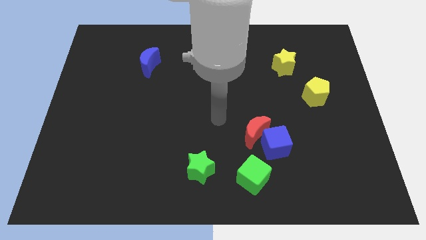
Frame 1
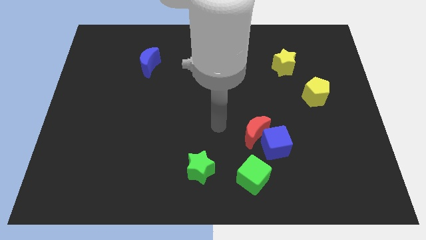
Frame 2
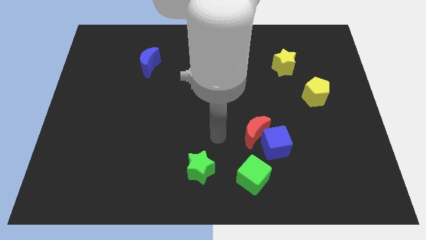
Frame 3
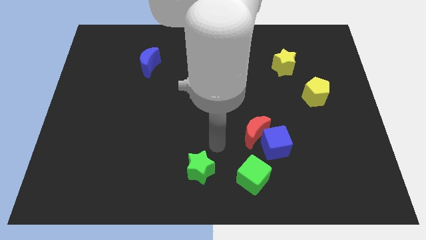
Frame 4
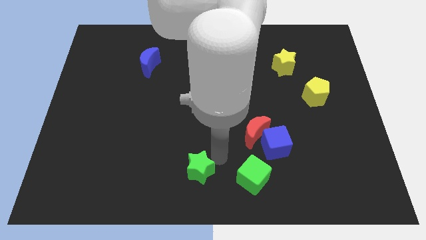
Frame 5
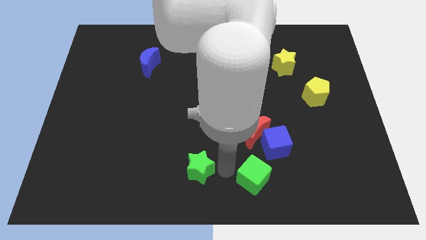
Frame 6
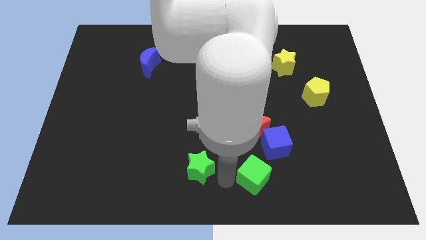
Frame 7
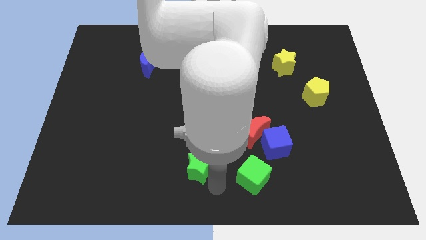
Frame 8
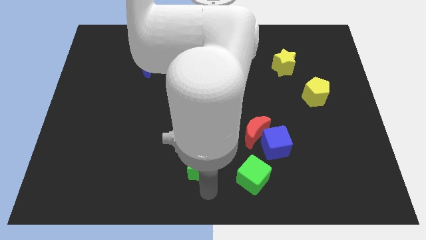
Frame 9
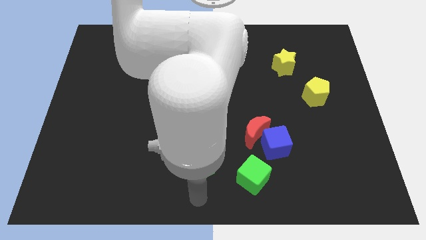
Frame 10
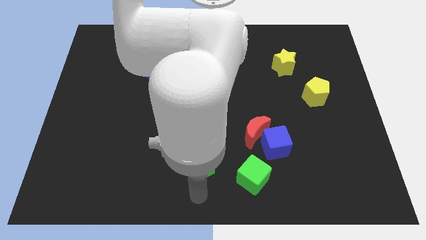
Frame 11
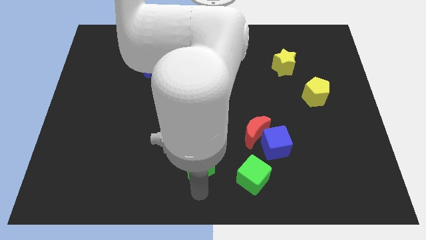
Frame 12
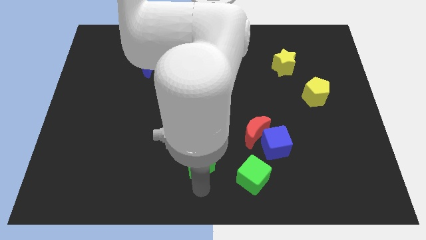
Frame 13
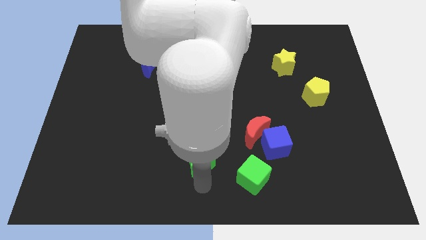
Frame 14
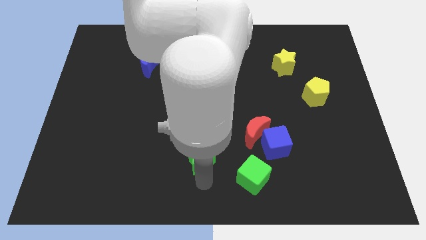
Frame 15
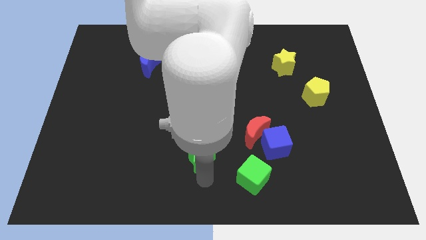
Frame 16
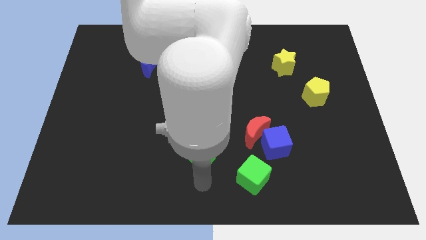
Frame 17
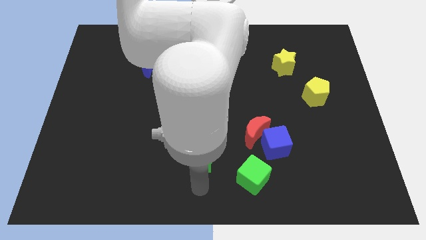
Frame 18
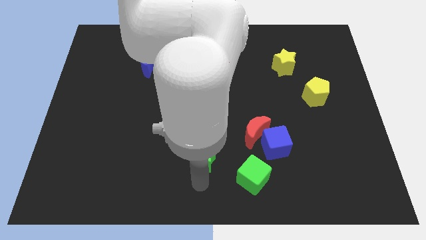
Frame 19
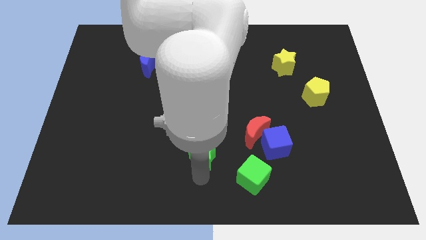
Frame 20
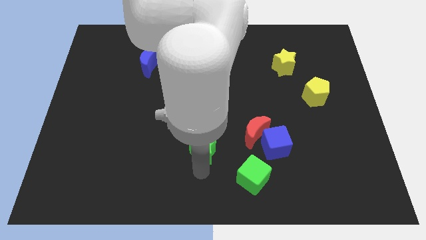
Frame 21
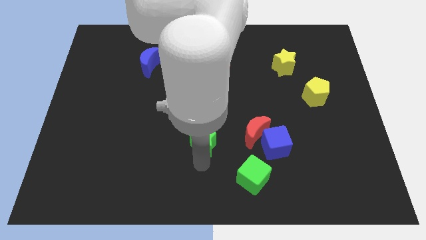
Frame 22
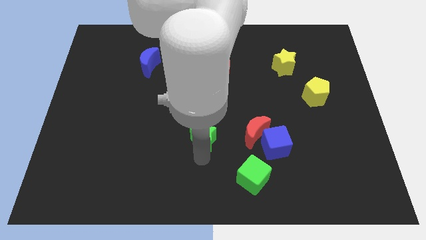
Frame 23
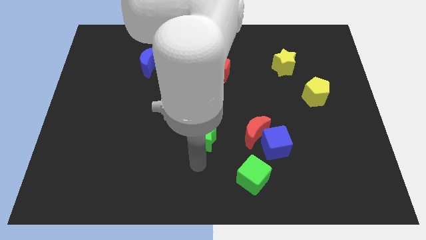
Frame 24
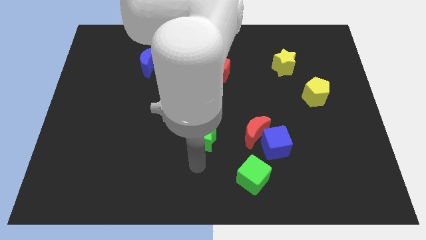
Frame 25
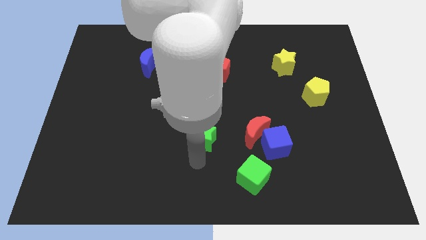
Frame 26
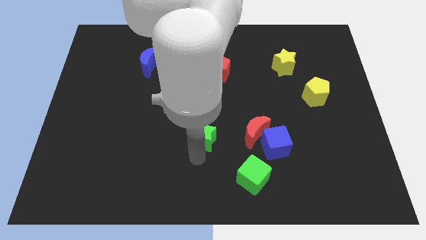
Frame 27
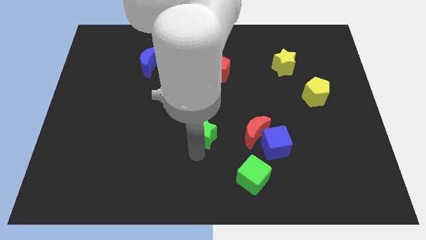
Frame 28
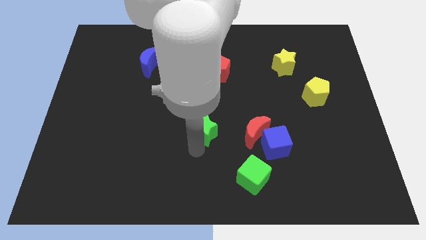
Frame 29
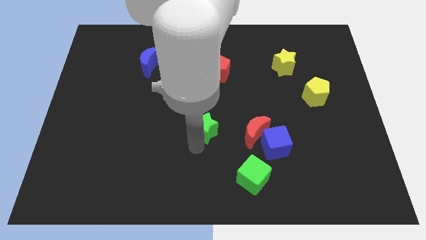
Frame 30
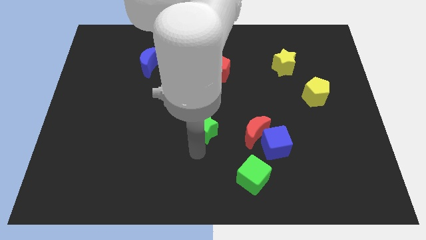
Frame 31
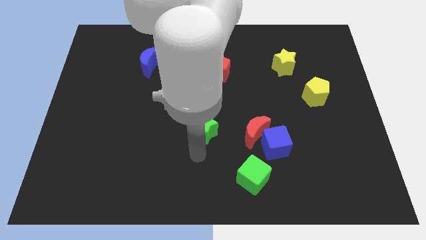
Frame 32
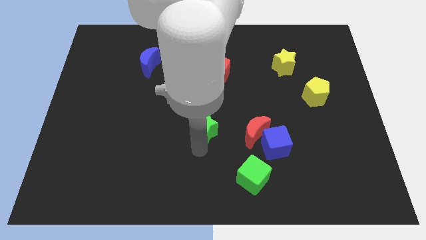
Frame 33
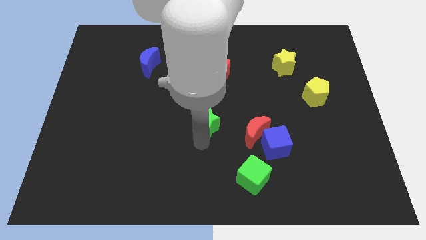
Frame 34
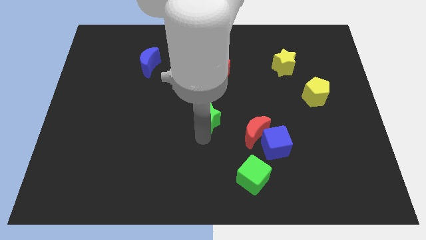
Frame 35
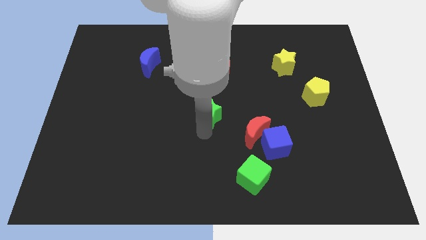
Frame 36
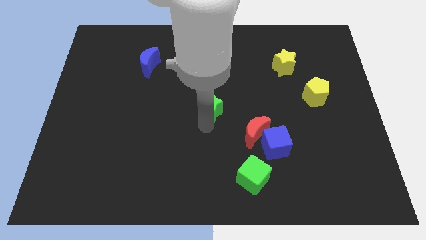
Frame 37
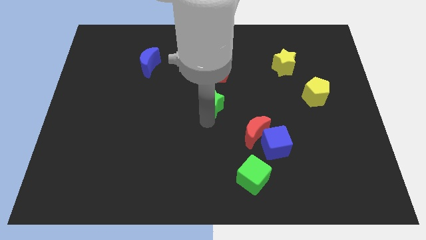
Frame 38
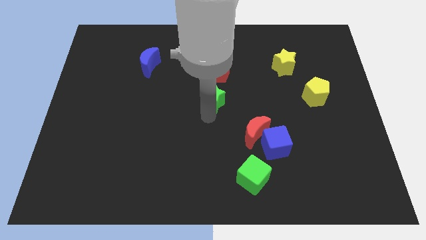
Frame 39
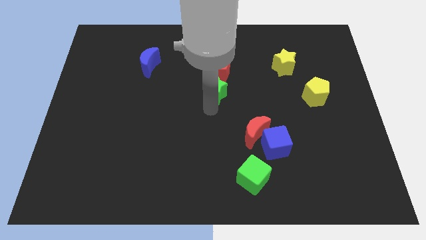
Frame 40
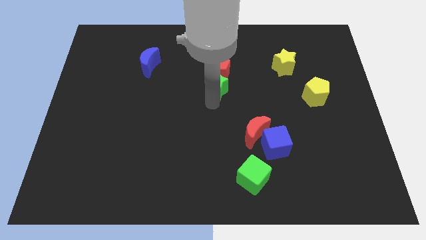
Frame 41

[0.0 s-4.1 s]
put the green star towards the red pentagon

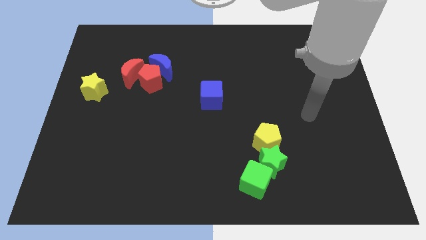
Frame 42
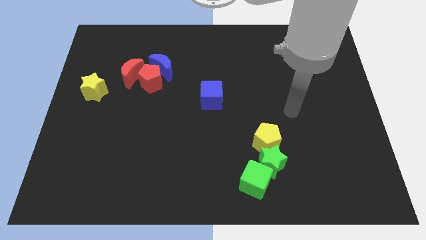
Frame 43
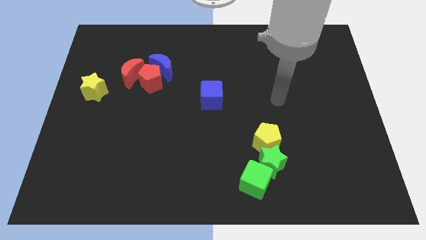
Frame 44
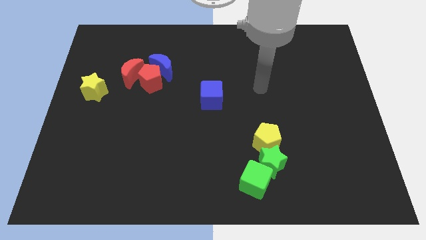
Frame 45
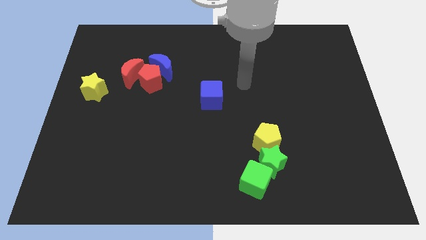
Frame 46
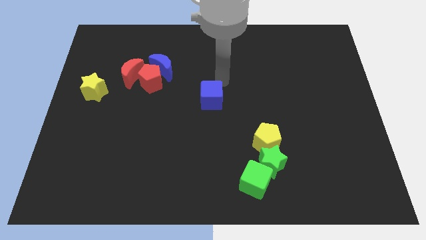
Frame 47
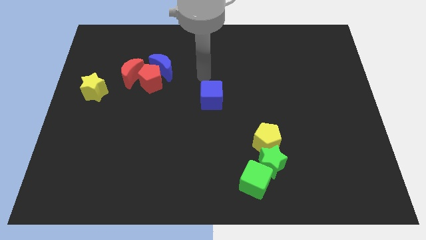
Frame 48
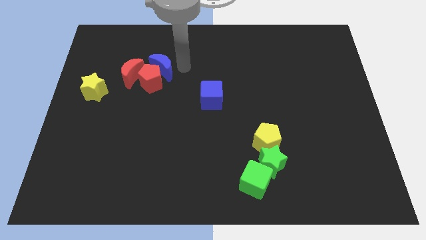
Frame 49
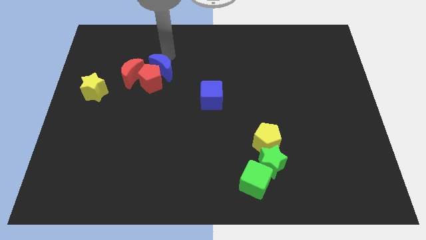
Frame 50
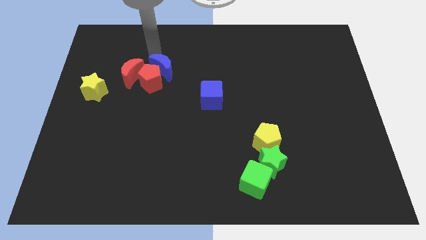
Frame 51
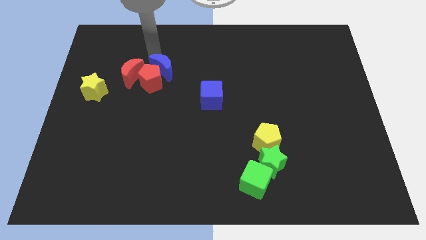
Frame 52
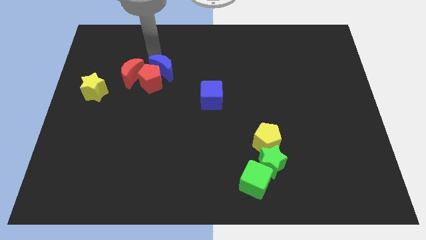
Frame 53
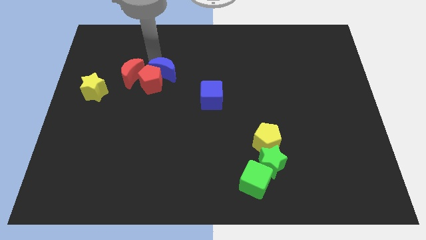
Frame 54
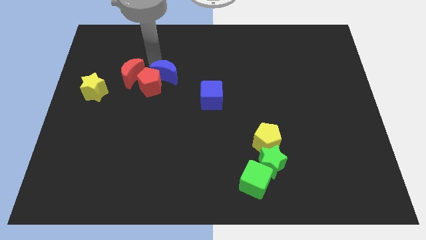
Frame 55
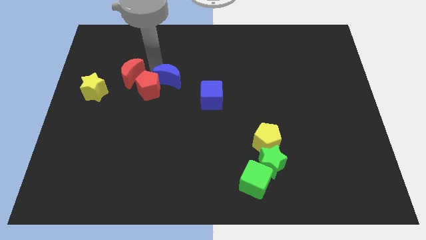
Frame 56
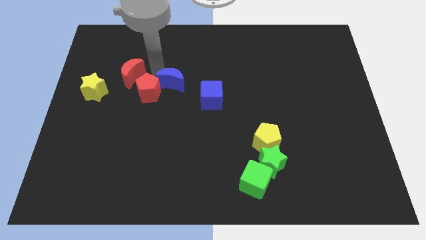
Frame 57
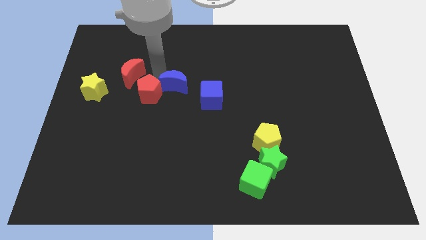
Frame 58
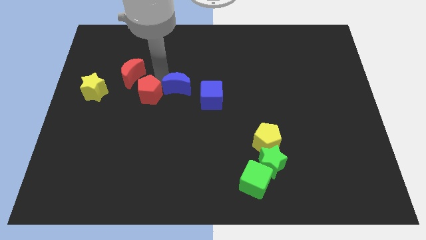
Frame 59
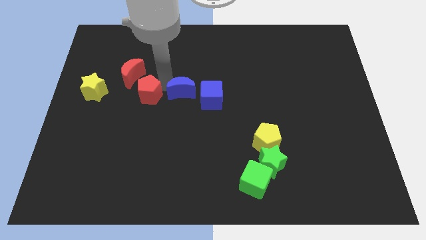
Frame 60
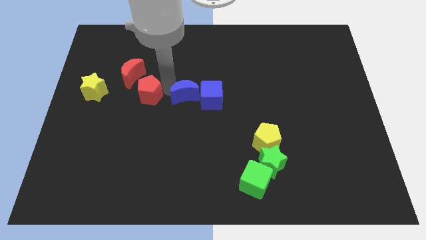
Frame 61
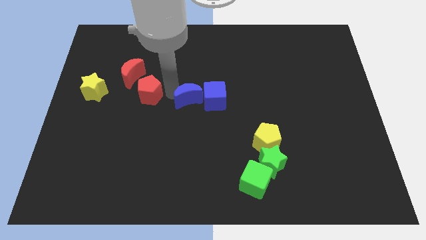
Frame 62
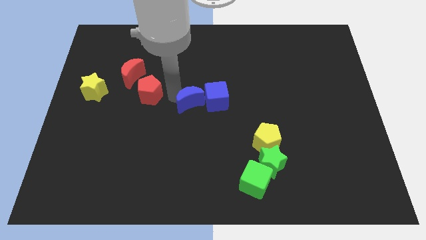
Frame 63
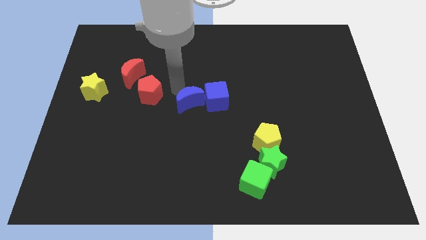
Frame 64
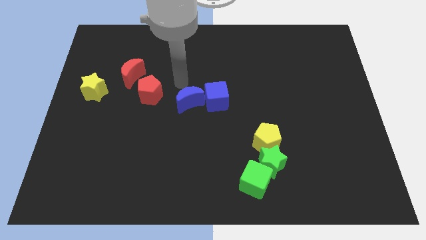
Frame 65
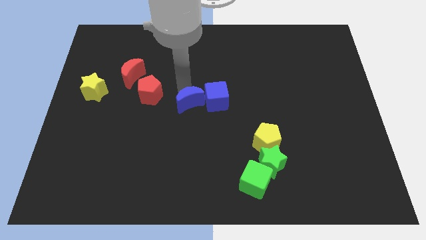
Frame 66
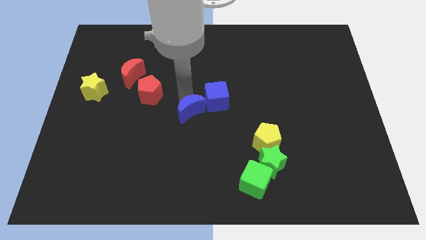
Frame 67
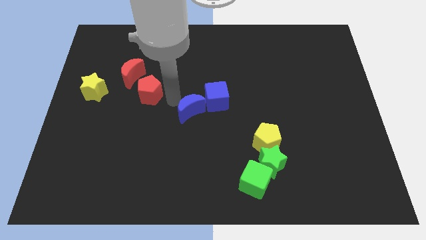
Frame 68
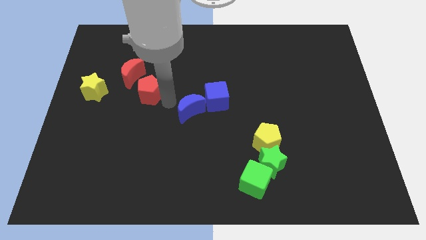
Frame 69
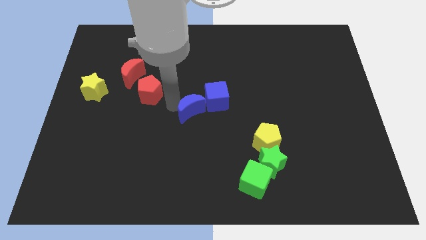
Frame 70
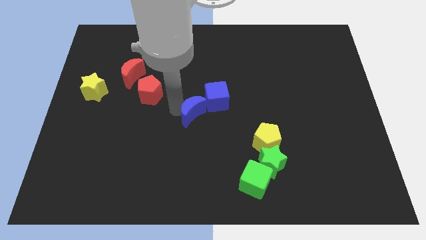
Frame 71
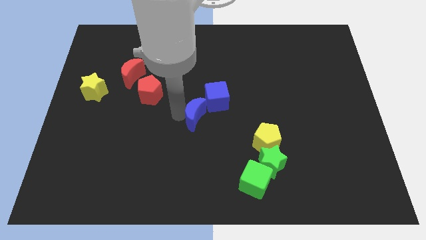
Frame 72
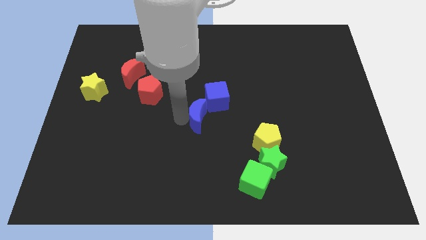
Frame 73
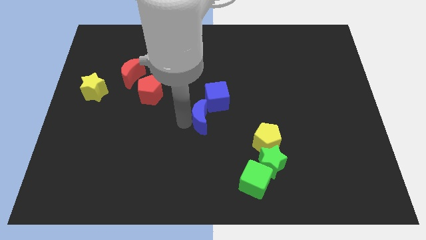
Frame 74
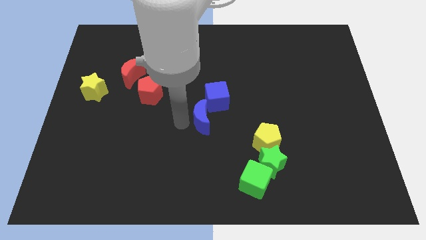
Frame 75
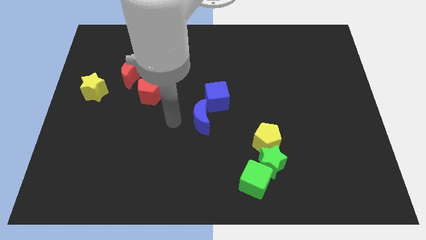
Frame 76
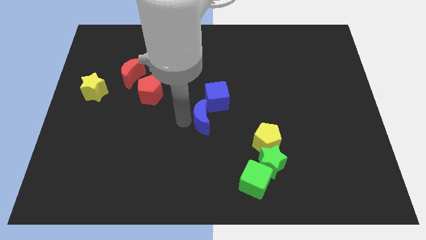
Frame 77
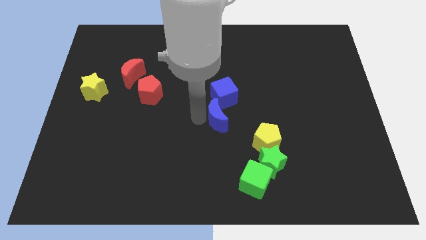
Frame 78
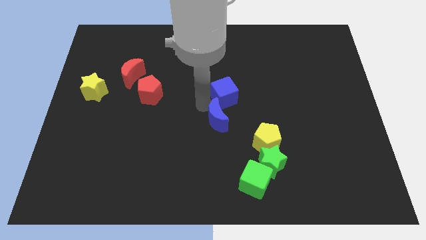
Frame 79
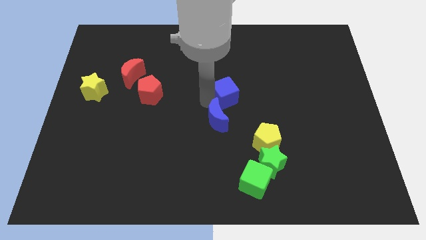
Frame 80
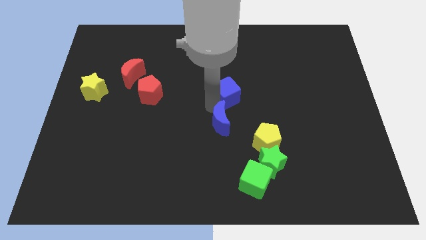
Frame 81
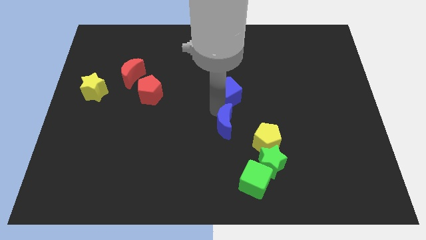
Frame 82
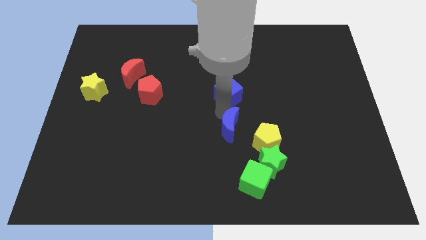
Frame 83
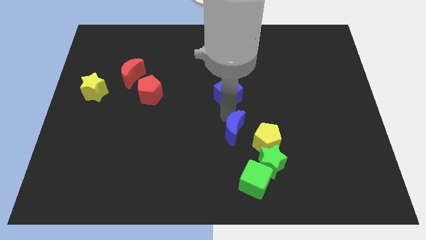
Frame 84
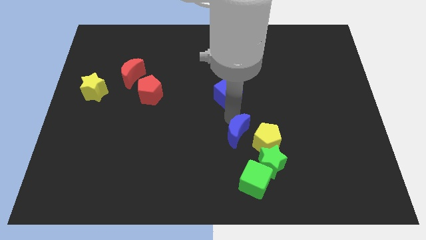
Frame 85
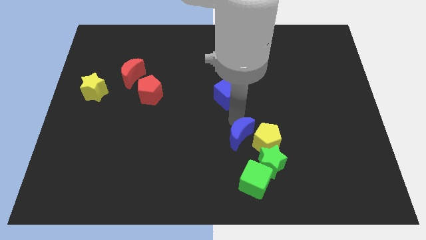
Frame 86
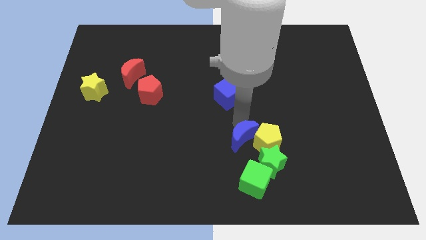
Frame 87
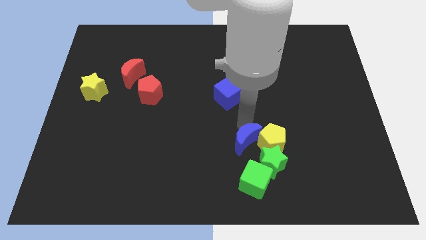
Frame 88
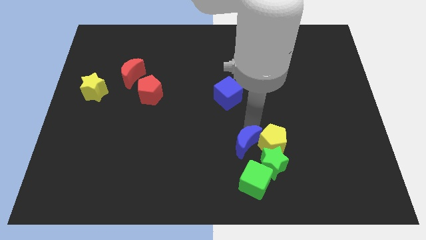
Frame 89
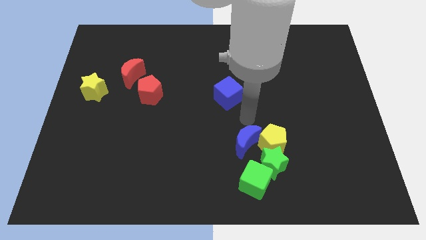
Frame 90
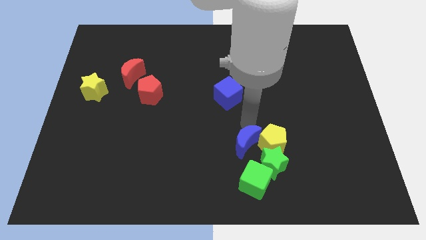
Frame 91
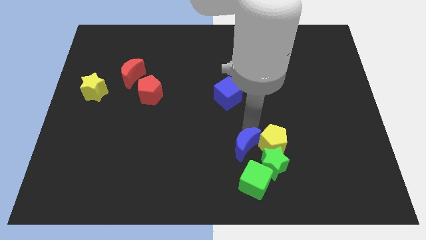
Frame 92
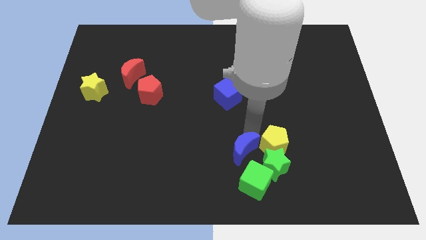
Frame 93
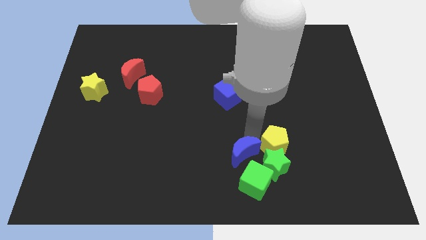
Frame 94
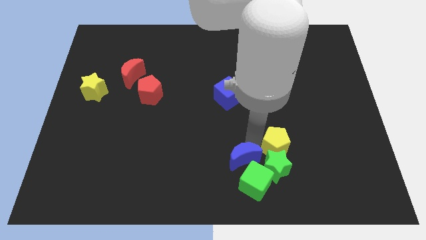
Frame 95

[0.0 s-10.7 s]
slide the blue moon next to the green cube
